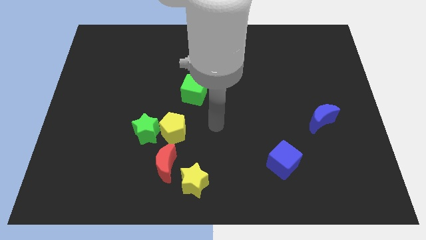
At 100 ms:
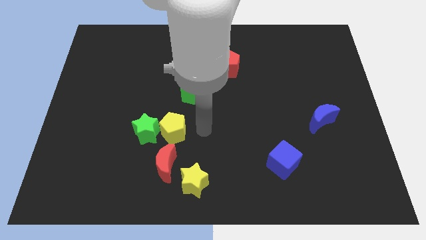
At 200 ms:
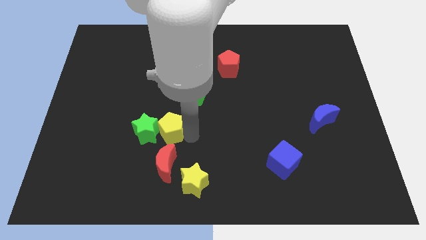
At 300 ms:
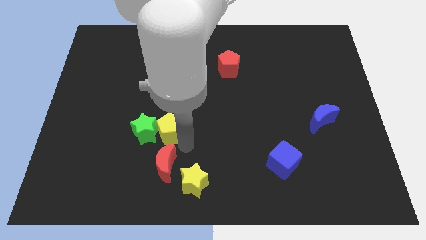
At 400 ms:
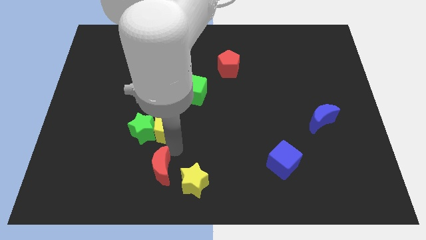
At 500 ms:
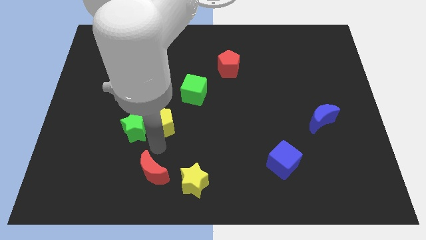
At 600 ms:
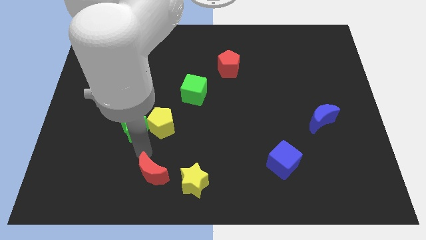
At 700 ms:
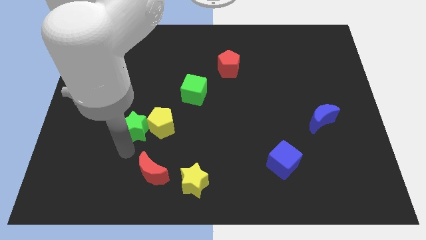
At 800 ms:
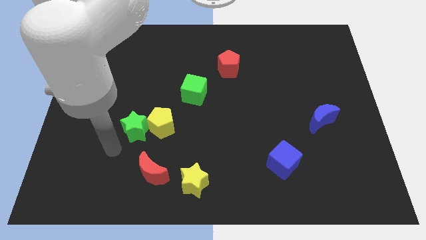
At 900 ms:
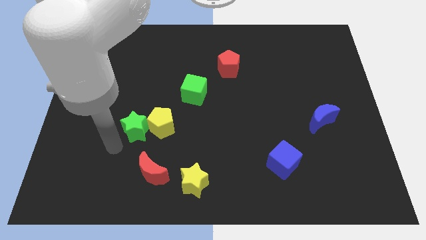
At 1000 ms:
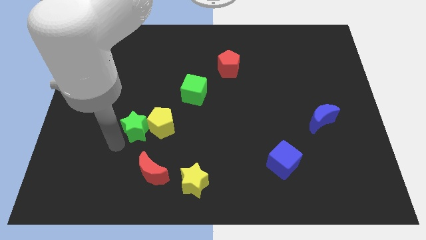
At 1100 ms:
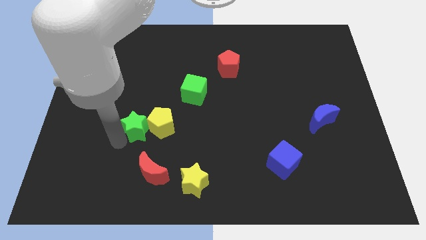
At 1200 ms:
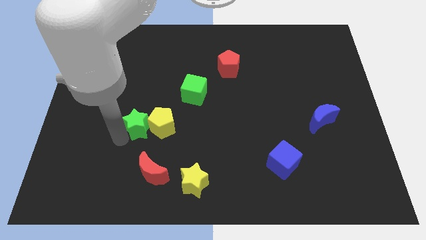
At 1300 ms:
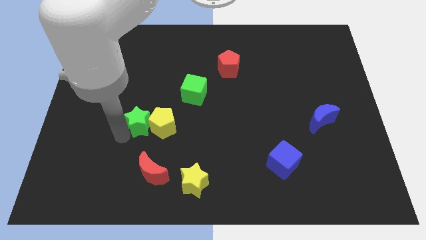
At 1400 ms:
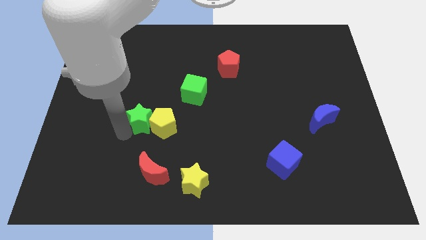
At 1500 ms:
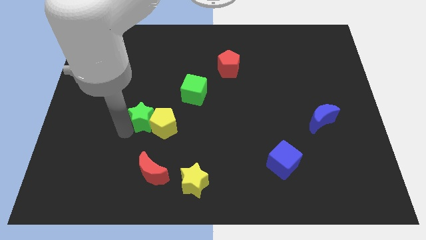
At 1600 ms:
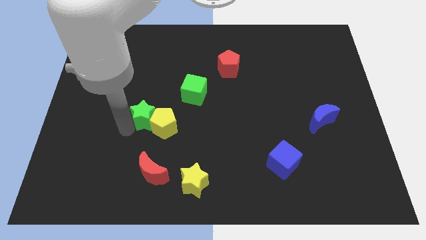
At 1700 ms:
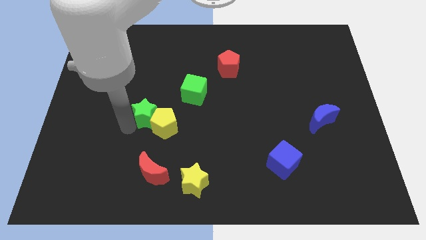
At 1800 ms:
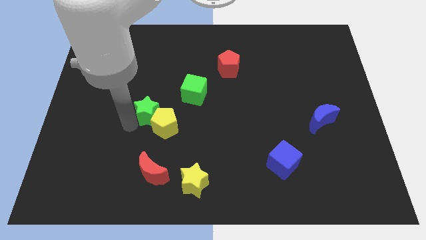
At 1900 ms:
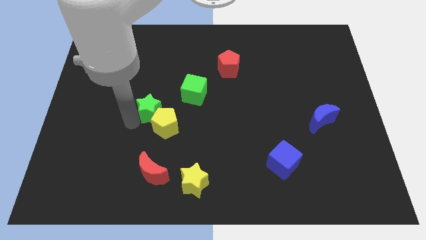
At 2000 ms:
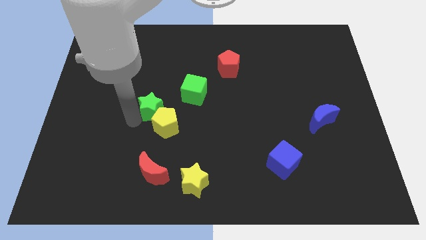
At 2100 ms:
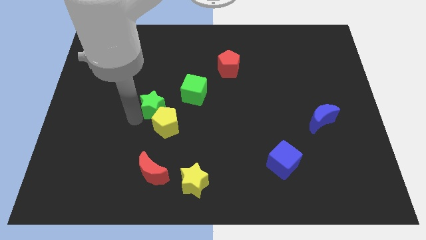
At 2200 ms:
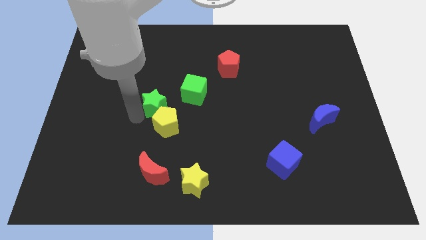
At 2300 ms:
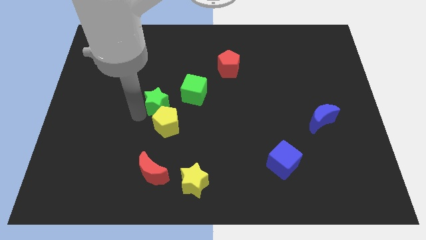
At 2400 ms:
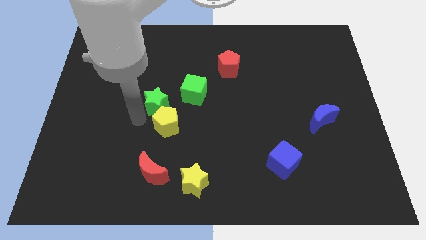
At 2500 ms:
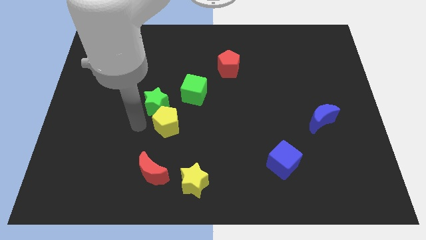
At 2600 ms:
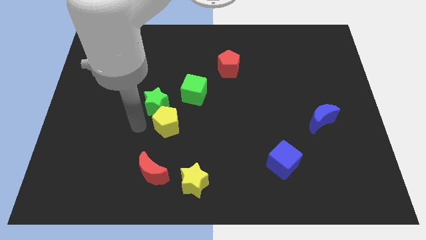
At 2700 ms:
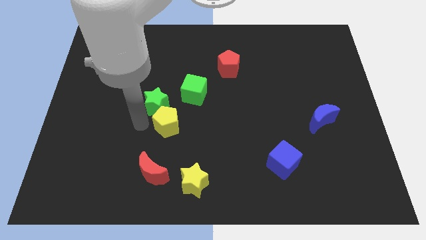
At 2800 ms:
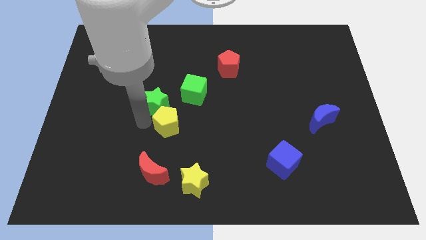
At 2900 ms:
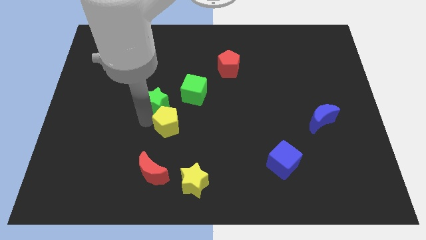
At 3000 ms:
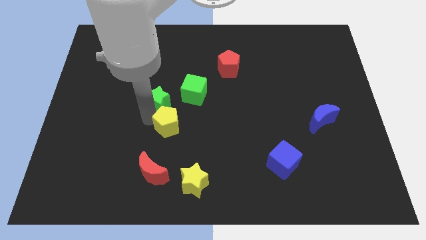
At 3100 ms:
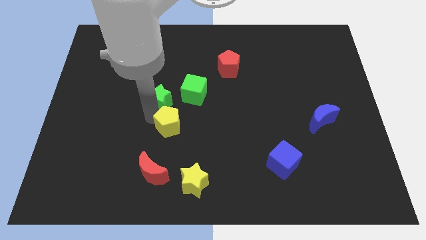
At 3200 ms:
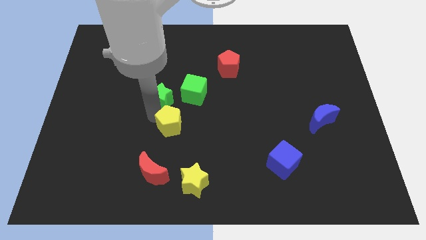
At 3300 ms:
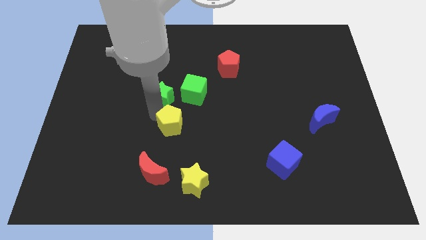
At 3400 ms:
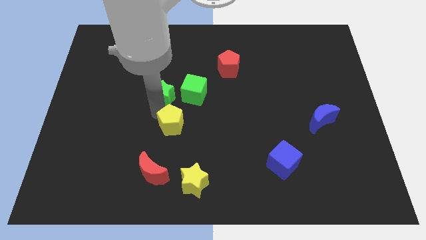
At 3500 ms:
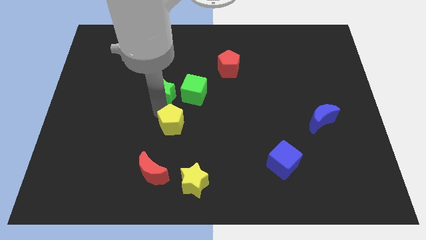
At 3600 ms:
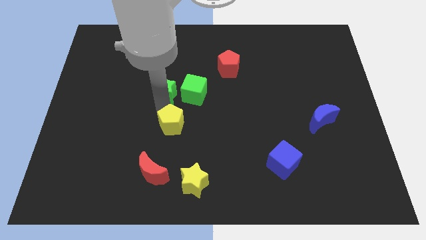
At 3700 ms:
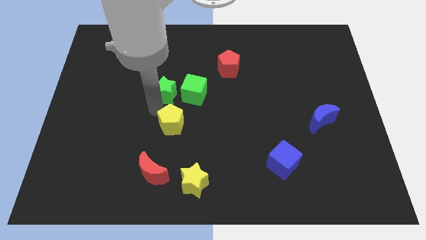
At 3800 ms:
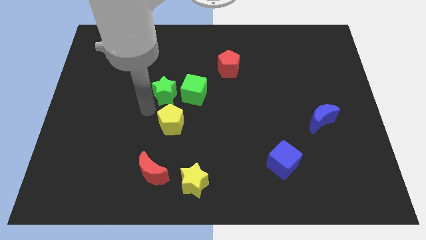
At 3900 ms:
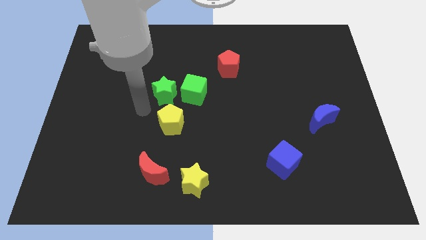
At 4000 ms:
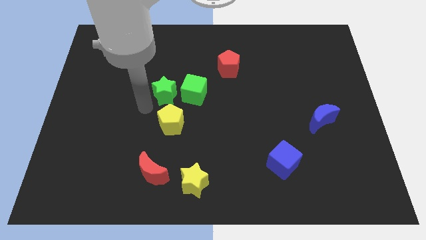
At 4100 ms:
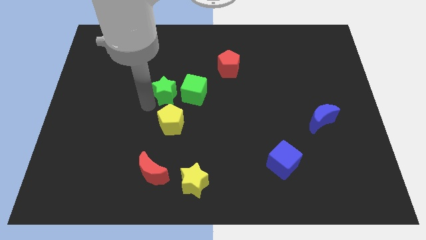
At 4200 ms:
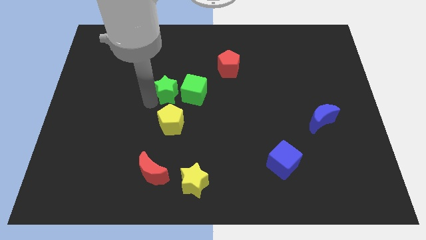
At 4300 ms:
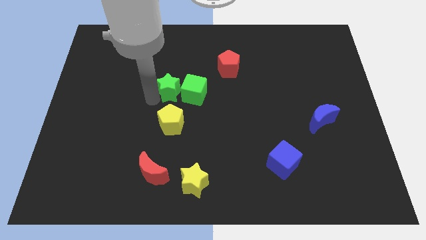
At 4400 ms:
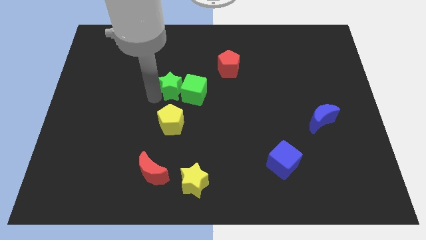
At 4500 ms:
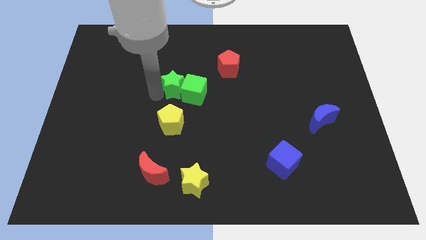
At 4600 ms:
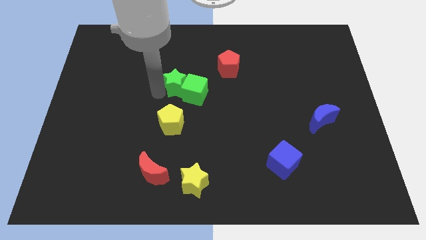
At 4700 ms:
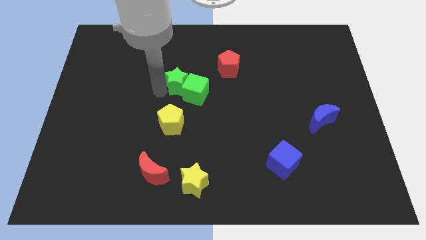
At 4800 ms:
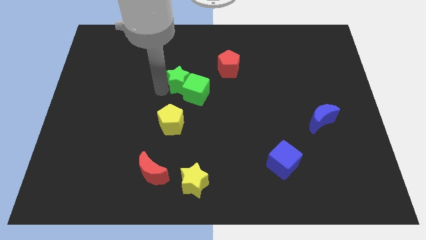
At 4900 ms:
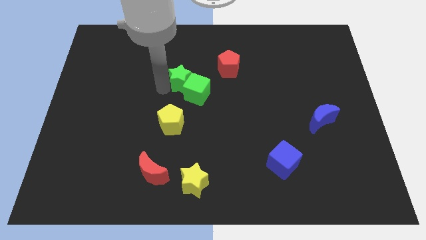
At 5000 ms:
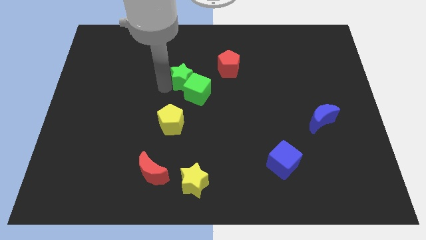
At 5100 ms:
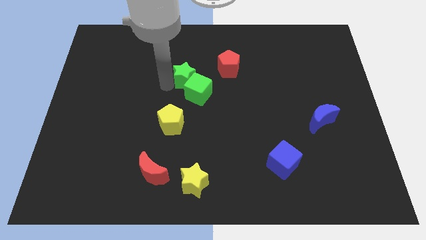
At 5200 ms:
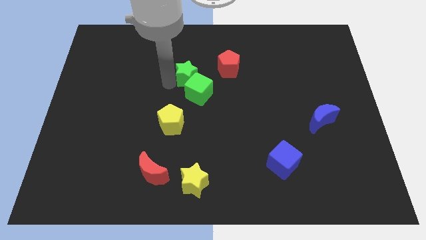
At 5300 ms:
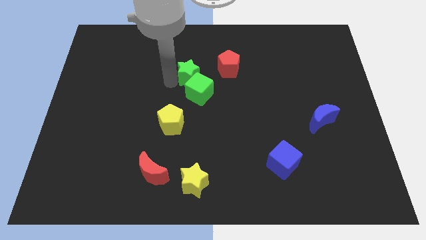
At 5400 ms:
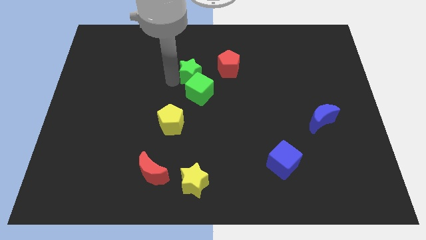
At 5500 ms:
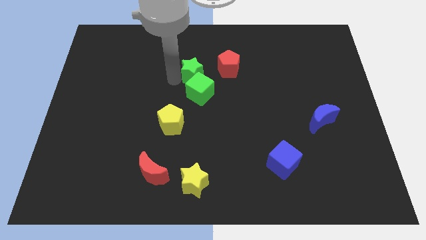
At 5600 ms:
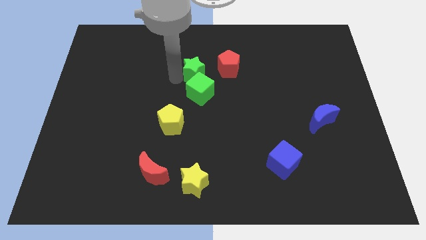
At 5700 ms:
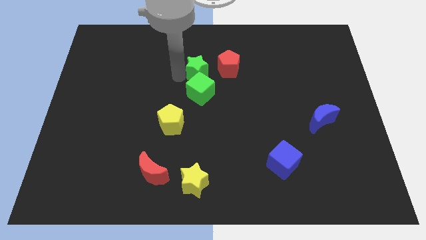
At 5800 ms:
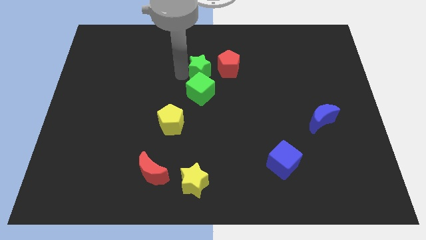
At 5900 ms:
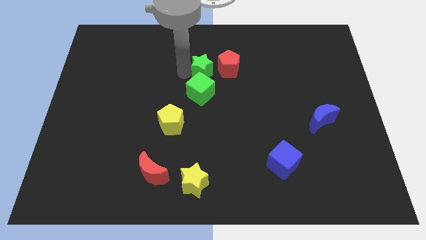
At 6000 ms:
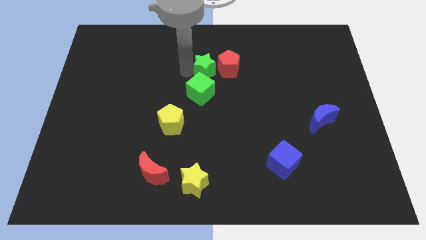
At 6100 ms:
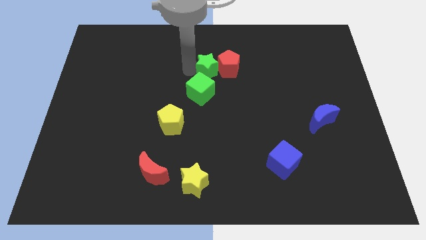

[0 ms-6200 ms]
move the green star to the red pentagon

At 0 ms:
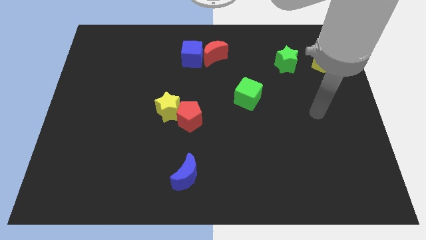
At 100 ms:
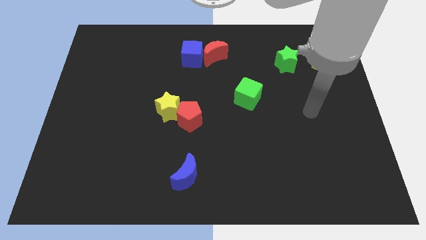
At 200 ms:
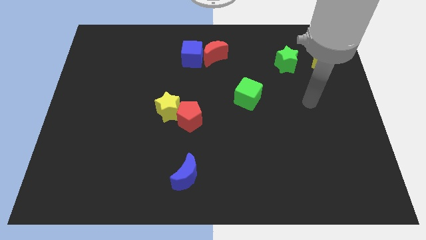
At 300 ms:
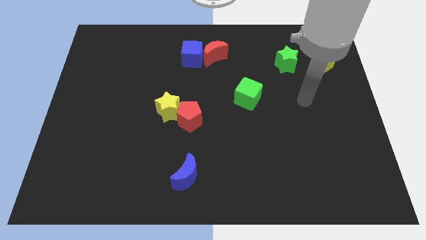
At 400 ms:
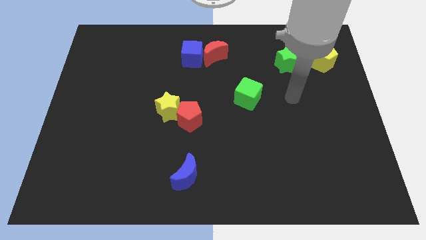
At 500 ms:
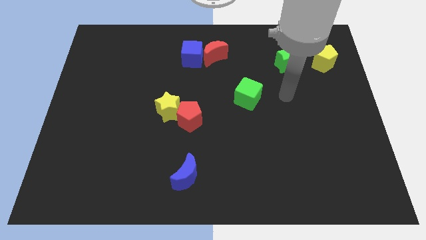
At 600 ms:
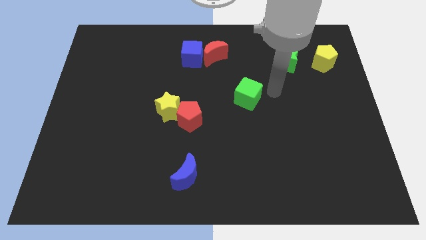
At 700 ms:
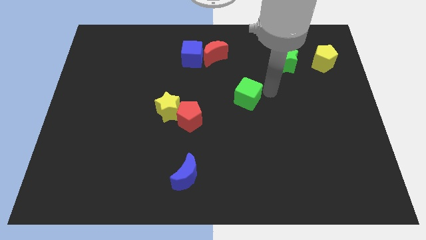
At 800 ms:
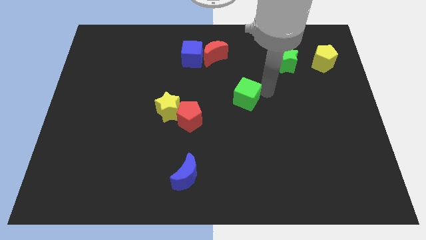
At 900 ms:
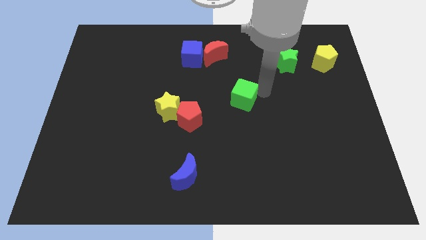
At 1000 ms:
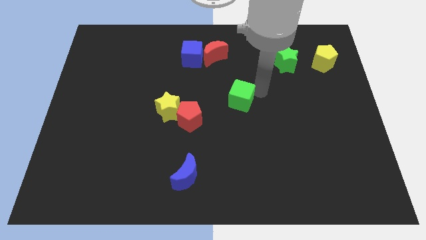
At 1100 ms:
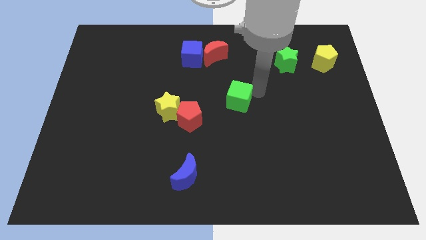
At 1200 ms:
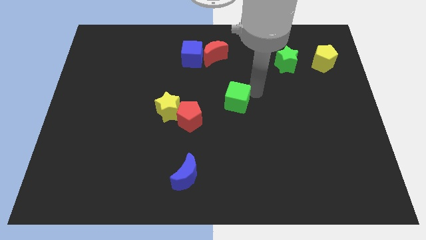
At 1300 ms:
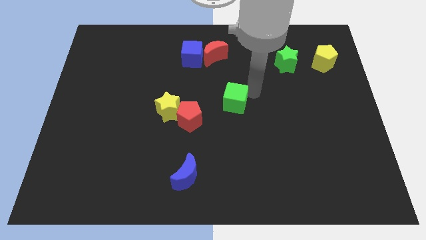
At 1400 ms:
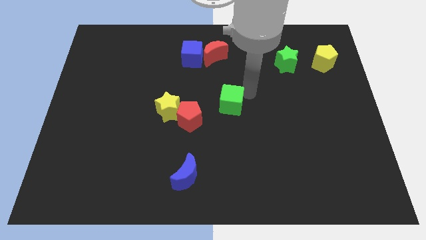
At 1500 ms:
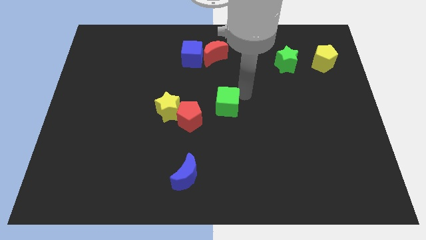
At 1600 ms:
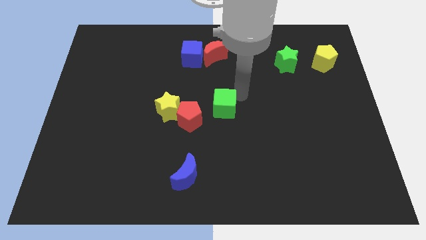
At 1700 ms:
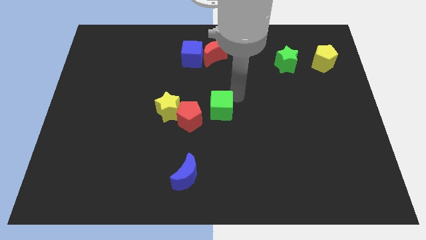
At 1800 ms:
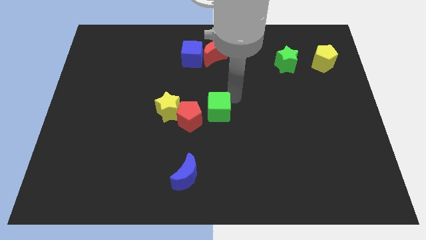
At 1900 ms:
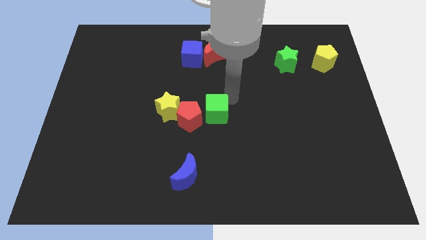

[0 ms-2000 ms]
put the green cube next to the red pentagon
